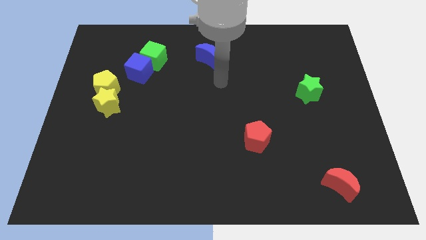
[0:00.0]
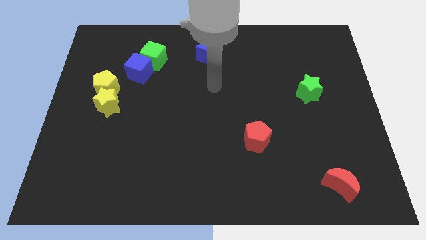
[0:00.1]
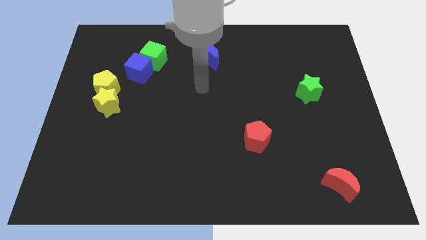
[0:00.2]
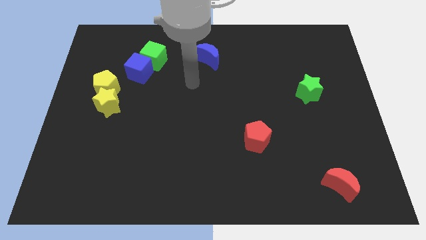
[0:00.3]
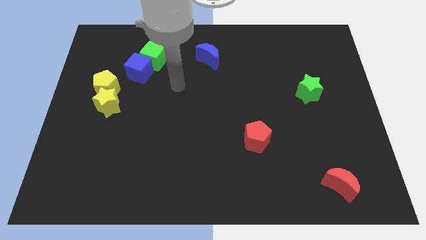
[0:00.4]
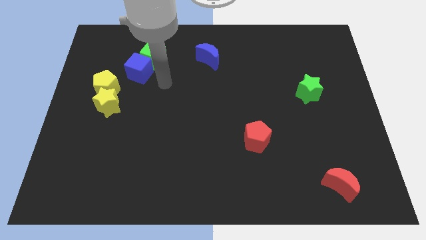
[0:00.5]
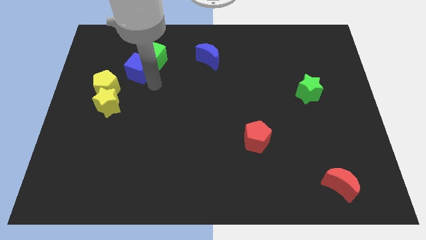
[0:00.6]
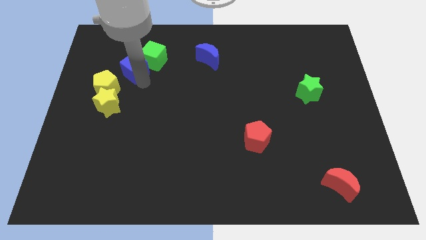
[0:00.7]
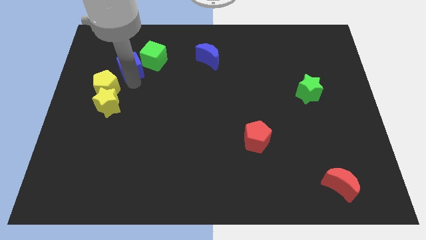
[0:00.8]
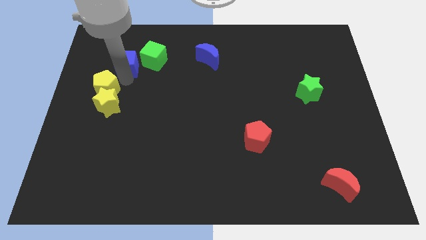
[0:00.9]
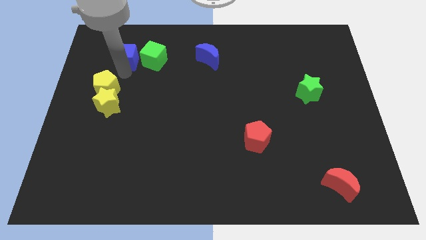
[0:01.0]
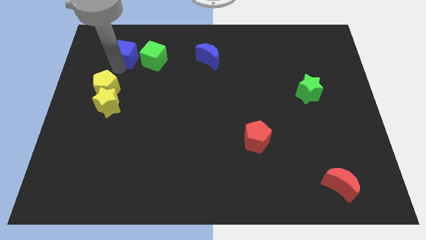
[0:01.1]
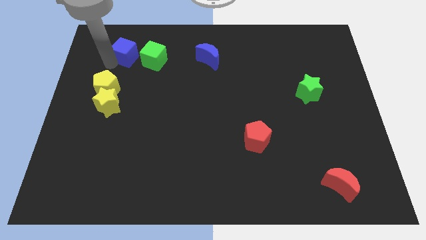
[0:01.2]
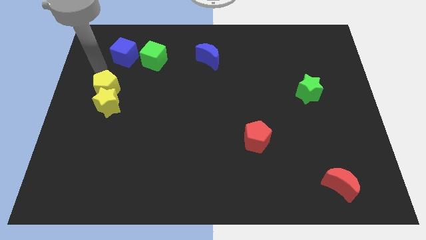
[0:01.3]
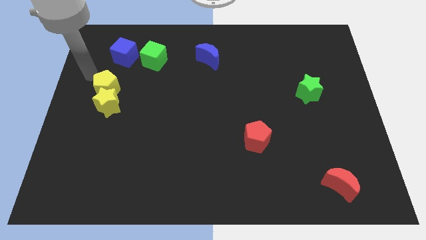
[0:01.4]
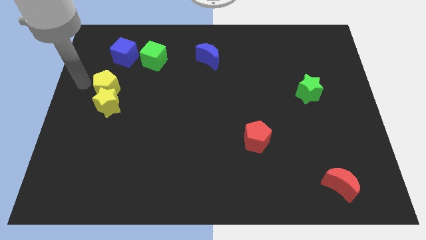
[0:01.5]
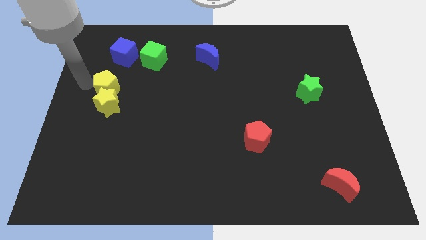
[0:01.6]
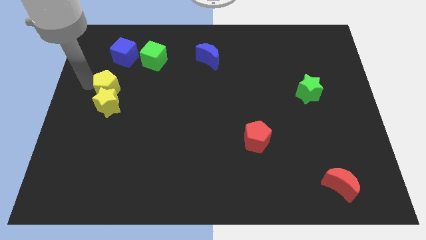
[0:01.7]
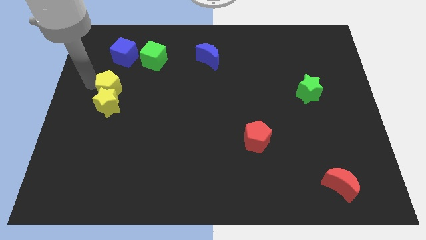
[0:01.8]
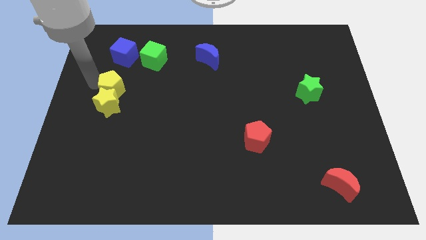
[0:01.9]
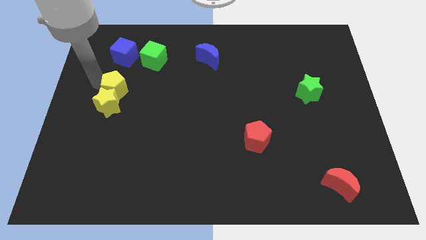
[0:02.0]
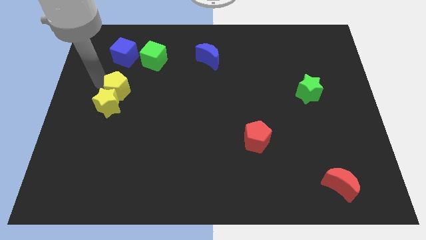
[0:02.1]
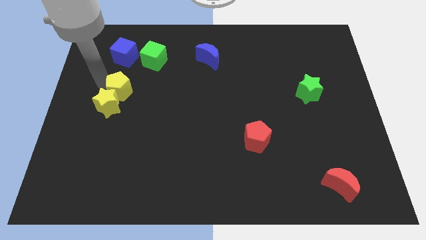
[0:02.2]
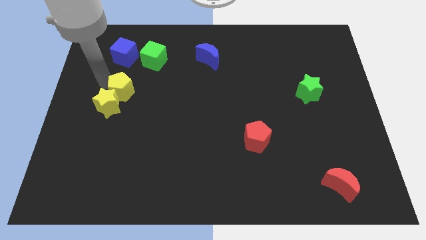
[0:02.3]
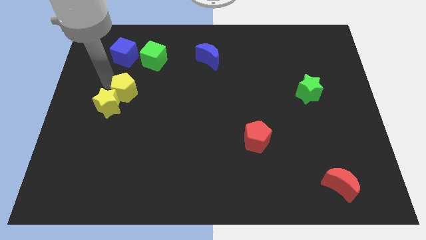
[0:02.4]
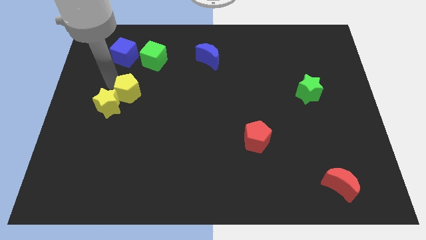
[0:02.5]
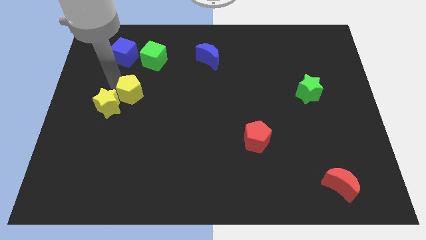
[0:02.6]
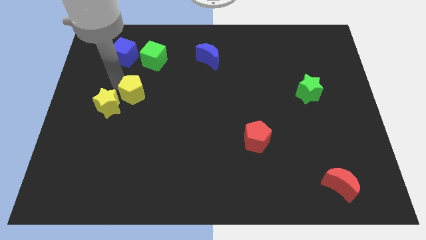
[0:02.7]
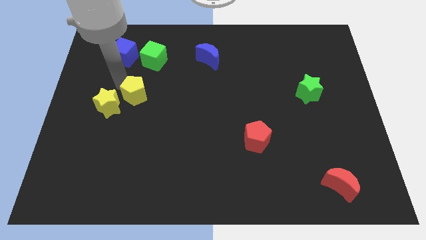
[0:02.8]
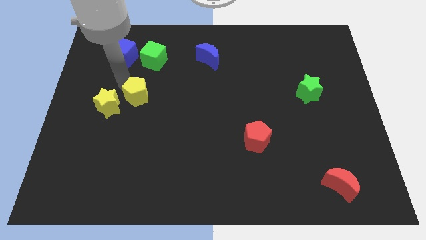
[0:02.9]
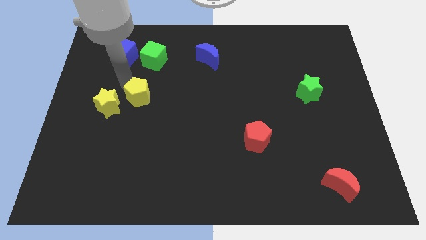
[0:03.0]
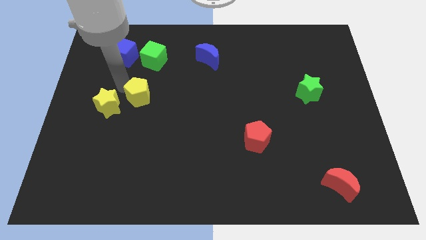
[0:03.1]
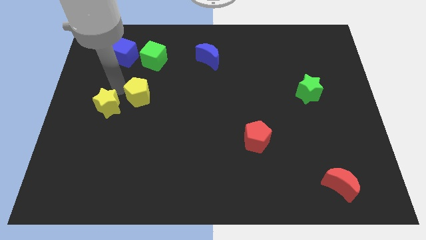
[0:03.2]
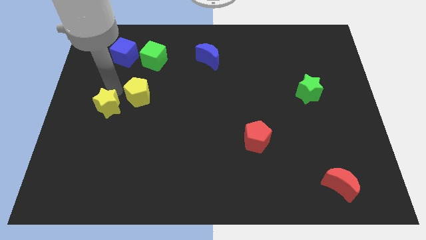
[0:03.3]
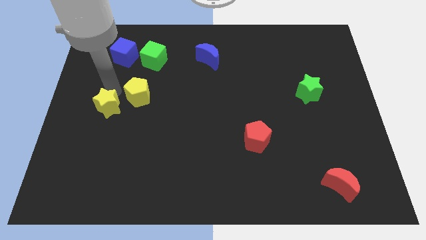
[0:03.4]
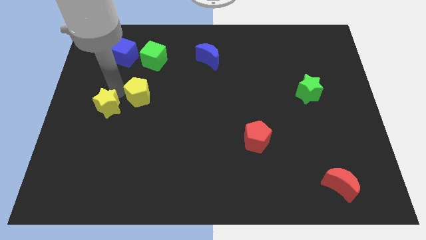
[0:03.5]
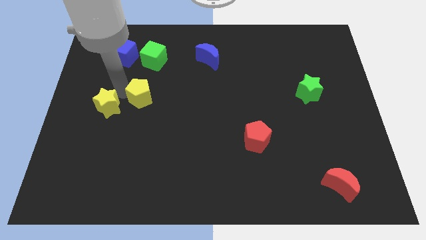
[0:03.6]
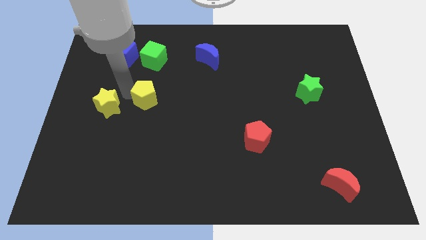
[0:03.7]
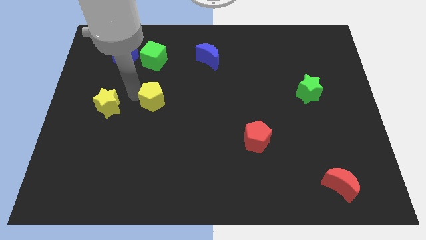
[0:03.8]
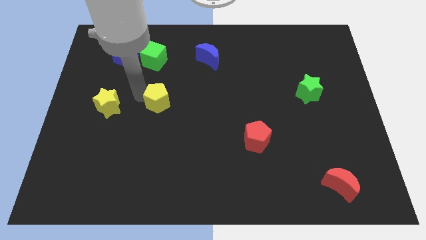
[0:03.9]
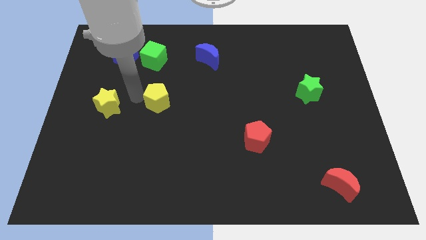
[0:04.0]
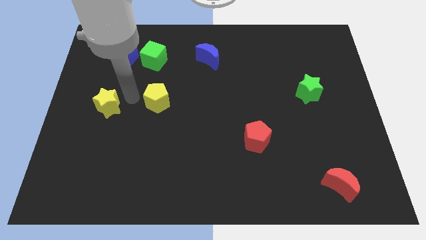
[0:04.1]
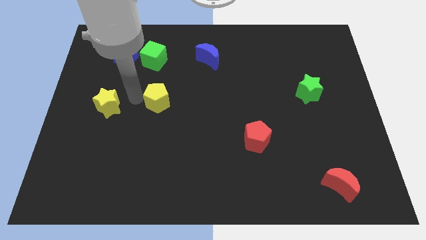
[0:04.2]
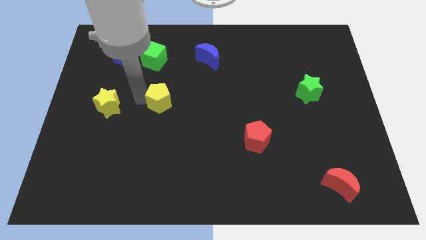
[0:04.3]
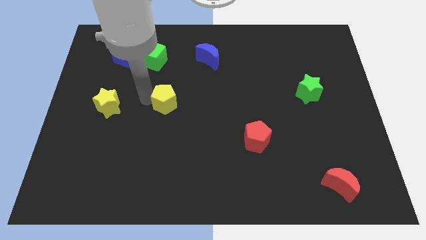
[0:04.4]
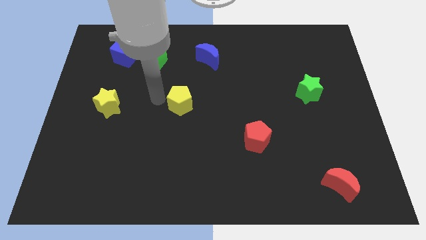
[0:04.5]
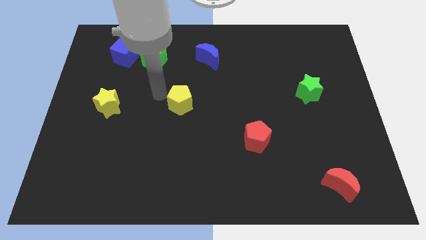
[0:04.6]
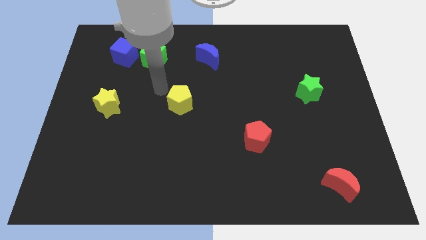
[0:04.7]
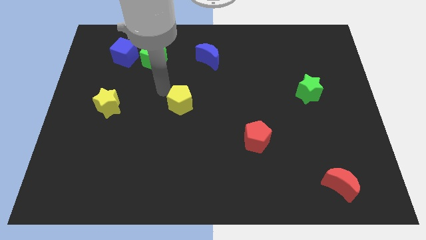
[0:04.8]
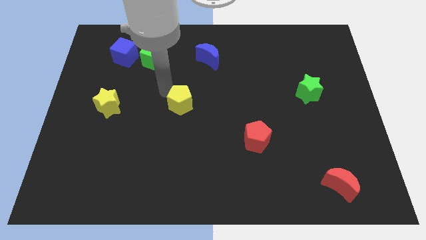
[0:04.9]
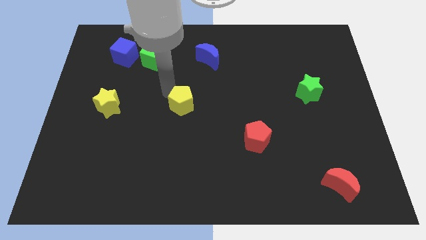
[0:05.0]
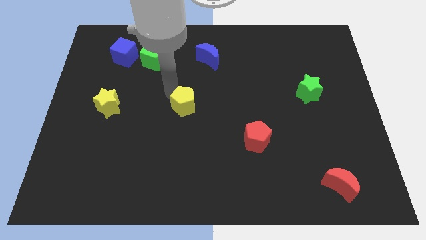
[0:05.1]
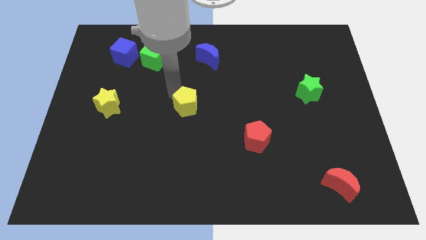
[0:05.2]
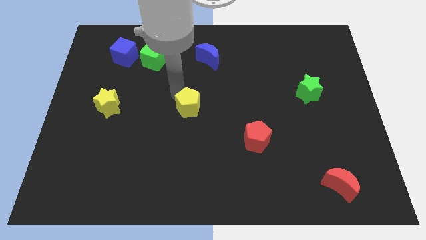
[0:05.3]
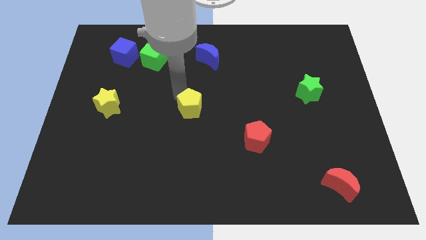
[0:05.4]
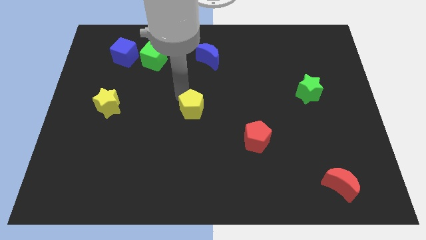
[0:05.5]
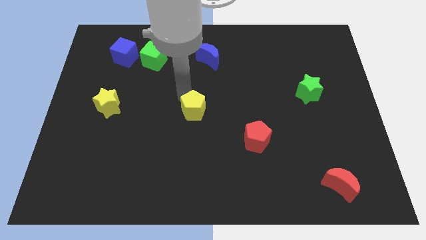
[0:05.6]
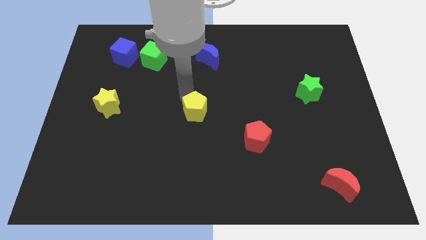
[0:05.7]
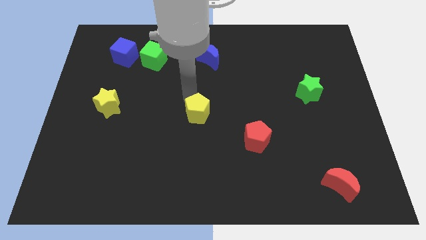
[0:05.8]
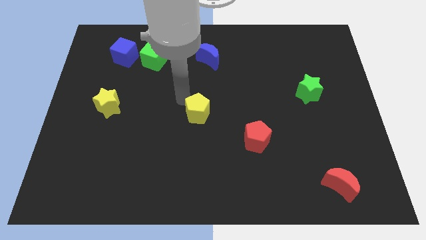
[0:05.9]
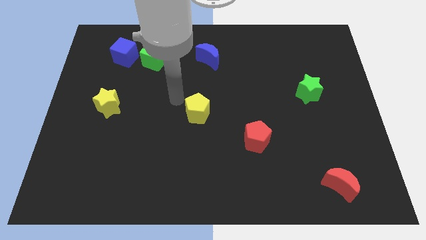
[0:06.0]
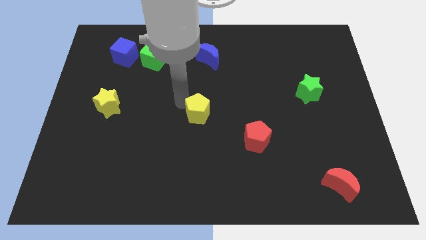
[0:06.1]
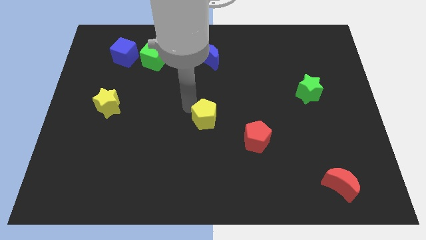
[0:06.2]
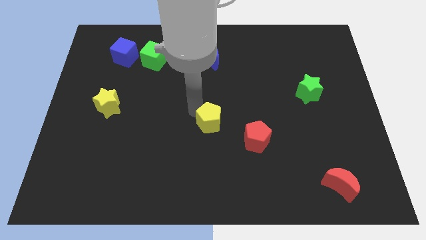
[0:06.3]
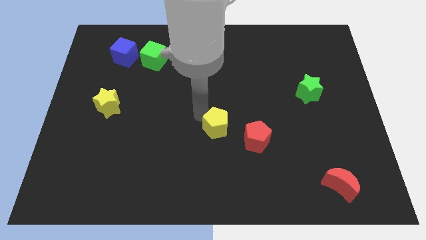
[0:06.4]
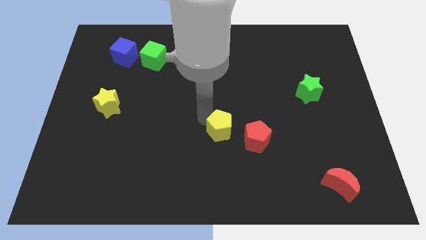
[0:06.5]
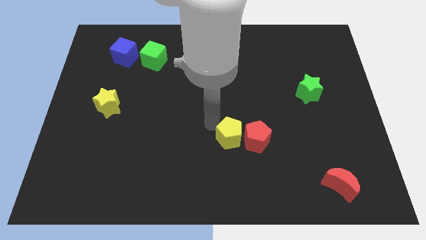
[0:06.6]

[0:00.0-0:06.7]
slide the yellow pentagon next to the red pentagon

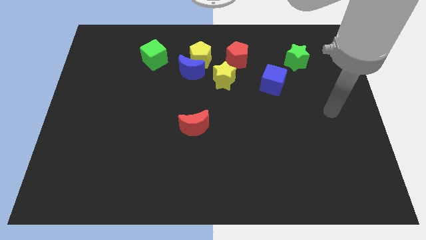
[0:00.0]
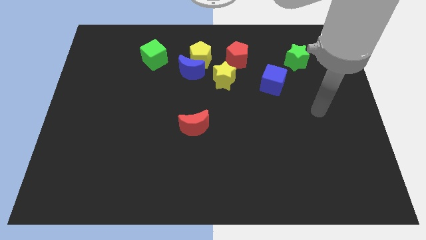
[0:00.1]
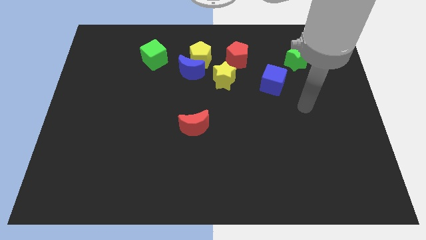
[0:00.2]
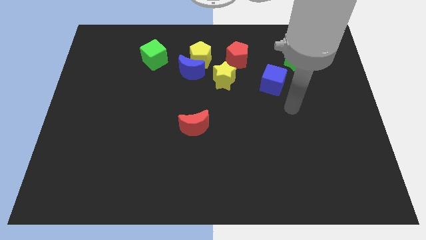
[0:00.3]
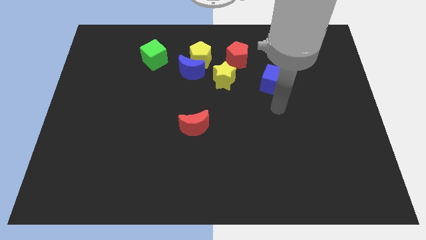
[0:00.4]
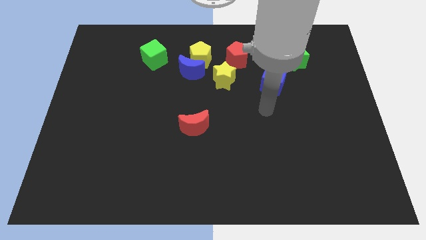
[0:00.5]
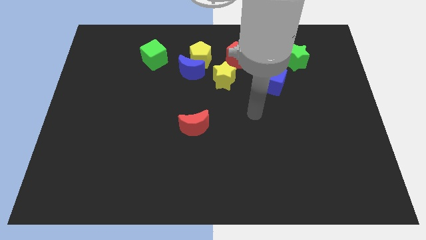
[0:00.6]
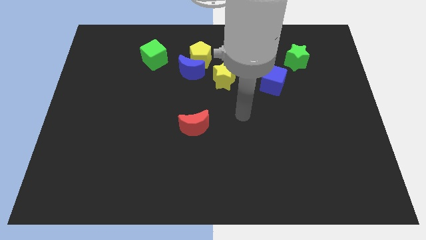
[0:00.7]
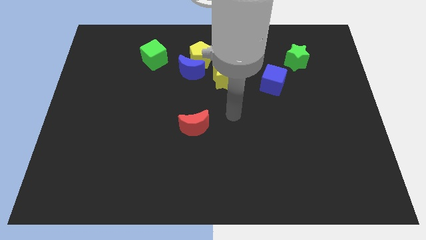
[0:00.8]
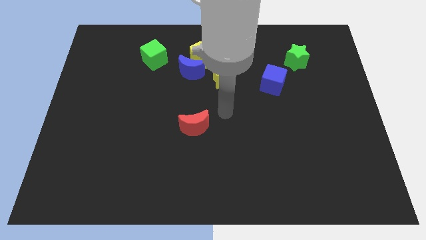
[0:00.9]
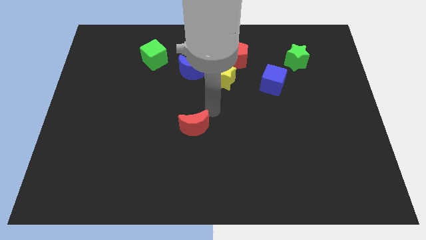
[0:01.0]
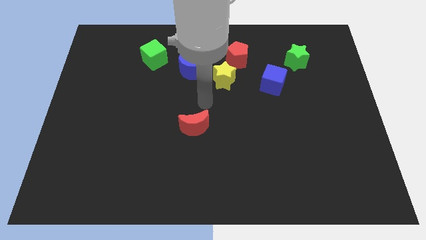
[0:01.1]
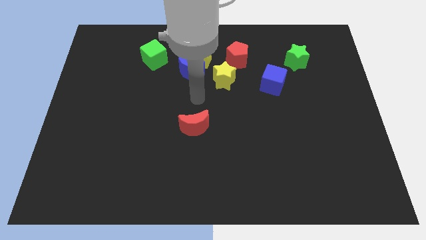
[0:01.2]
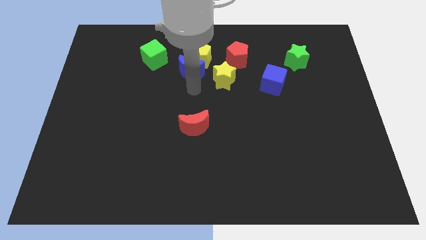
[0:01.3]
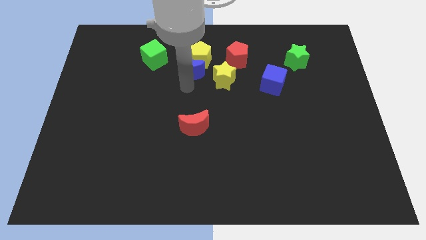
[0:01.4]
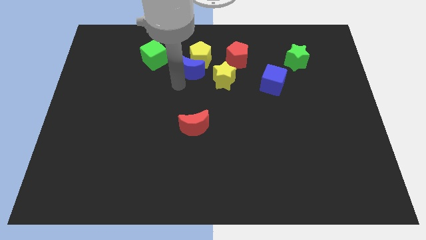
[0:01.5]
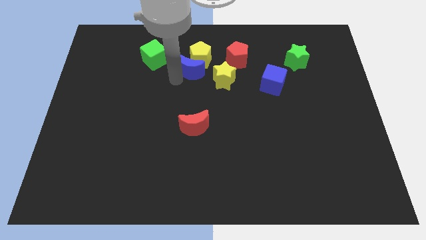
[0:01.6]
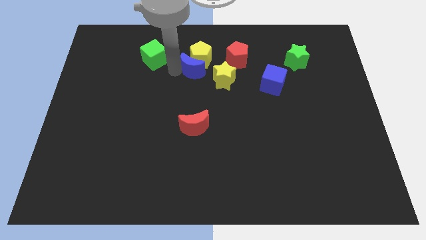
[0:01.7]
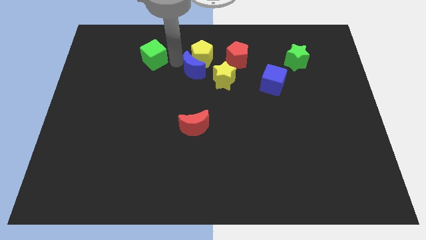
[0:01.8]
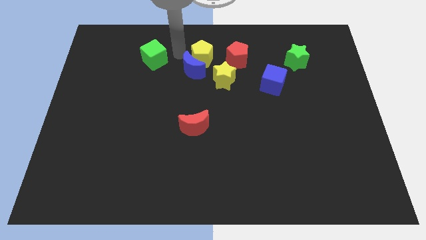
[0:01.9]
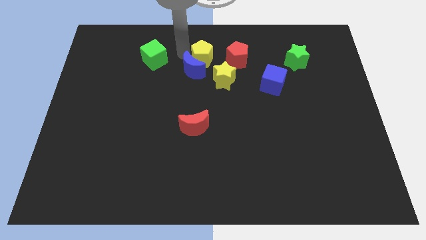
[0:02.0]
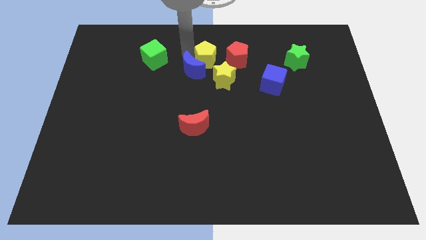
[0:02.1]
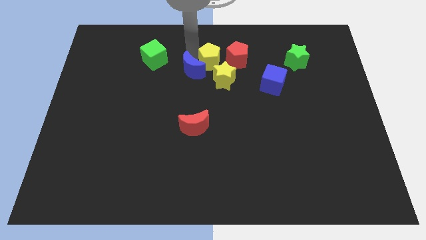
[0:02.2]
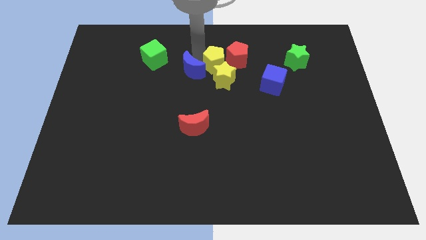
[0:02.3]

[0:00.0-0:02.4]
push the yellow pentagon close to the red pentagon
